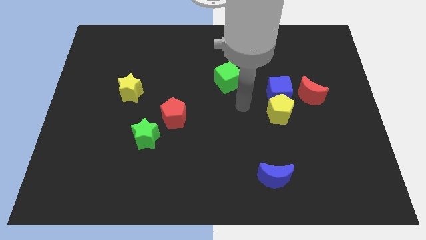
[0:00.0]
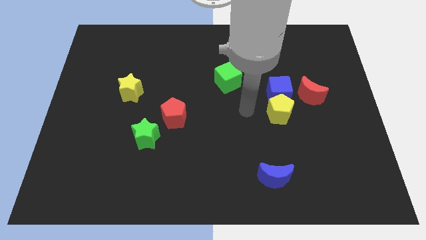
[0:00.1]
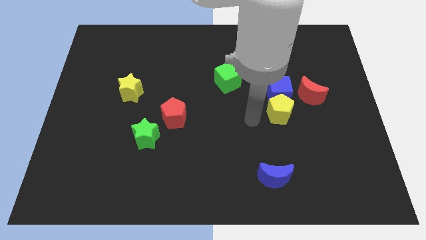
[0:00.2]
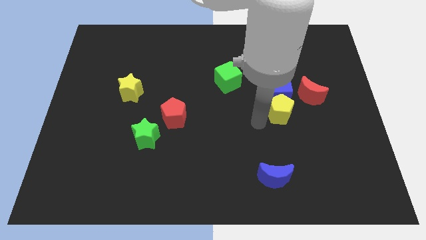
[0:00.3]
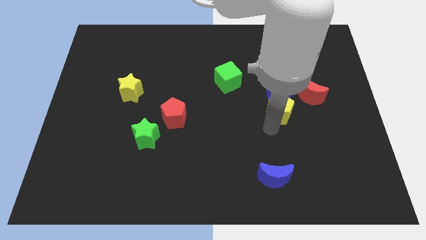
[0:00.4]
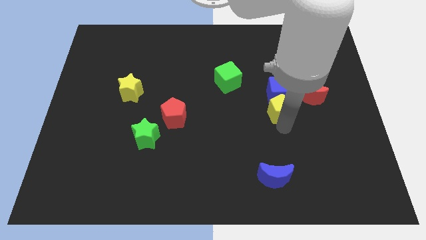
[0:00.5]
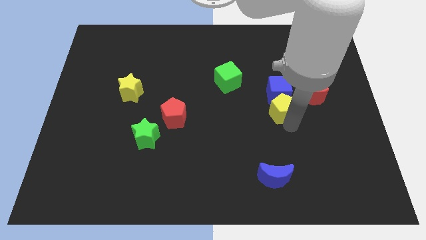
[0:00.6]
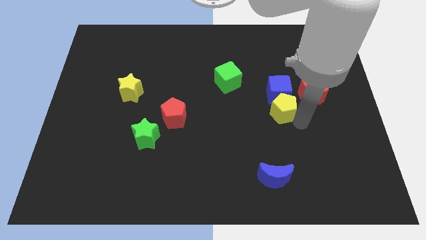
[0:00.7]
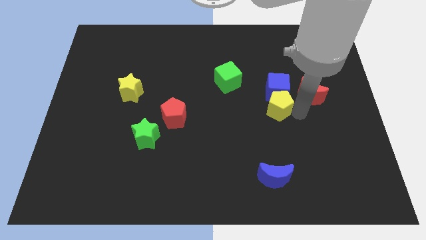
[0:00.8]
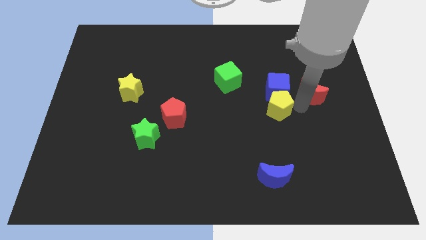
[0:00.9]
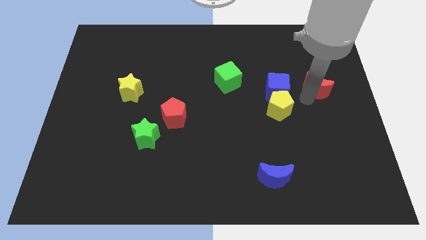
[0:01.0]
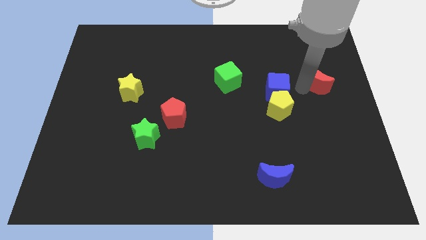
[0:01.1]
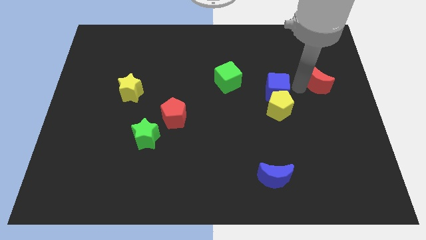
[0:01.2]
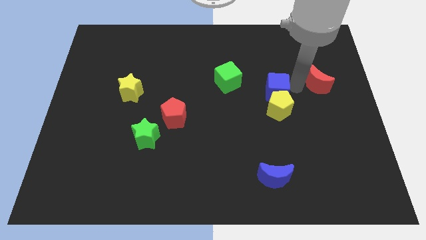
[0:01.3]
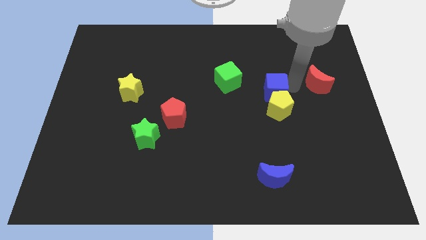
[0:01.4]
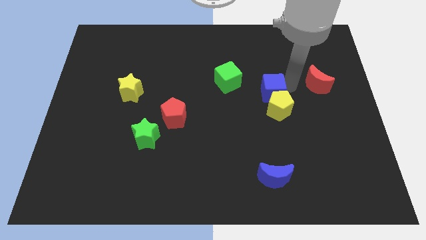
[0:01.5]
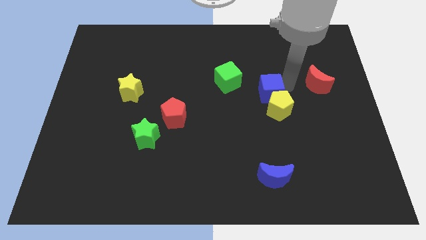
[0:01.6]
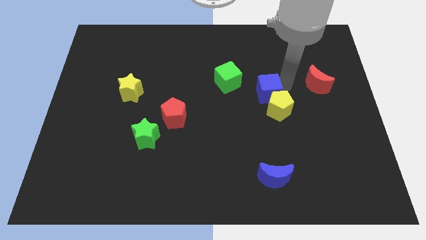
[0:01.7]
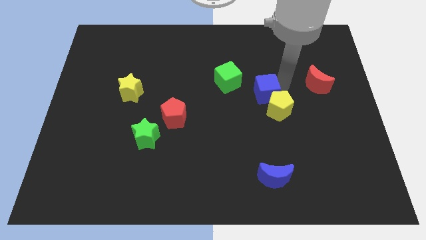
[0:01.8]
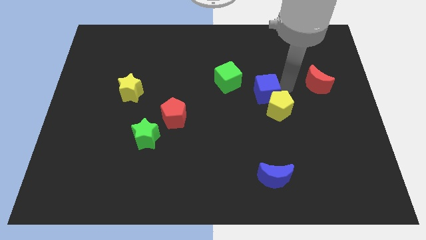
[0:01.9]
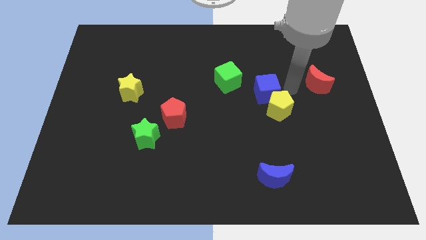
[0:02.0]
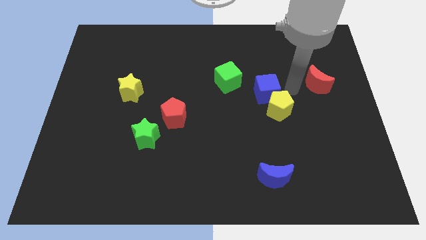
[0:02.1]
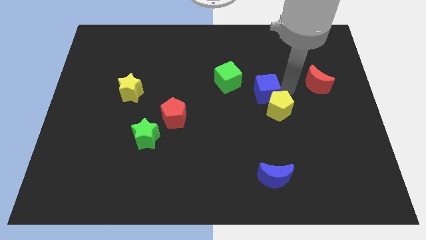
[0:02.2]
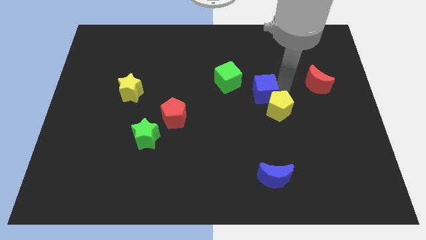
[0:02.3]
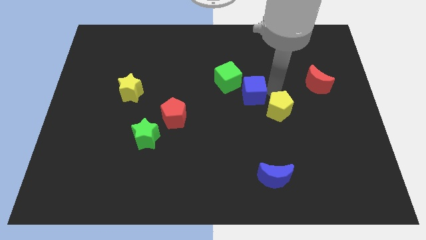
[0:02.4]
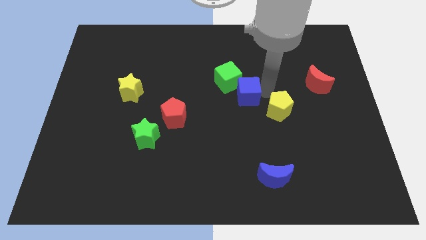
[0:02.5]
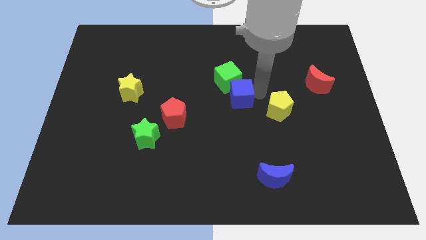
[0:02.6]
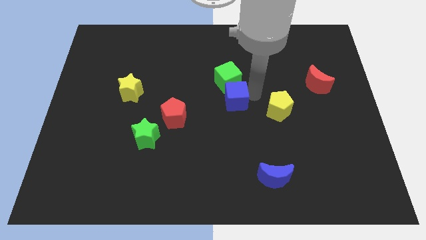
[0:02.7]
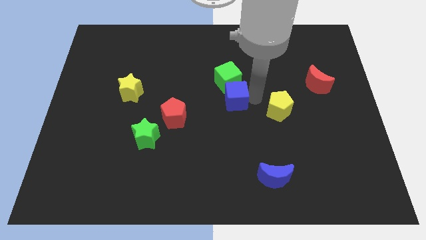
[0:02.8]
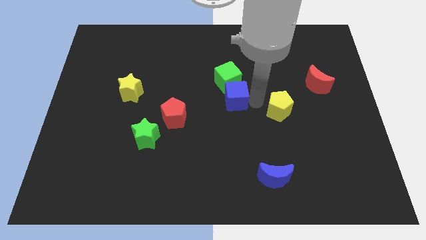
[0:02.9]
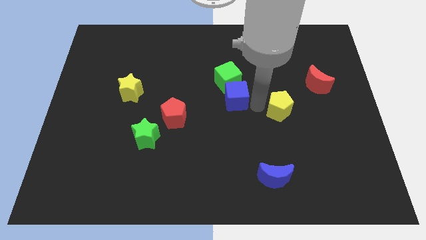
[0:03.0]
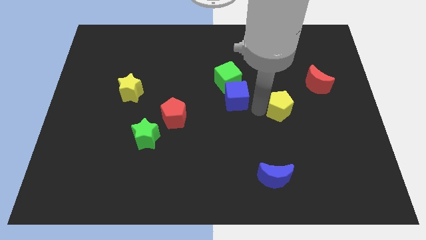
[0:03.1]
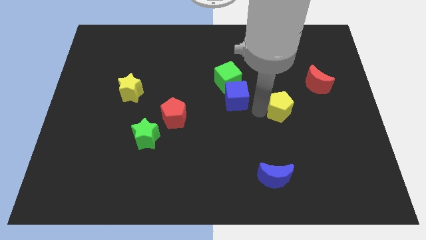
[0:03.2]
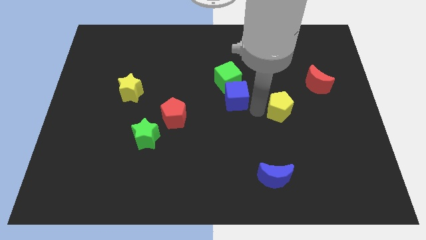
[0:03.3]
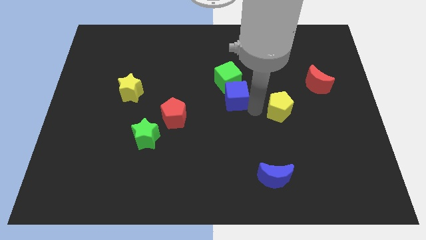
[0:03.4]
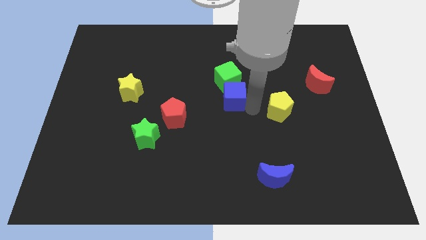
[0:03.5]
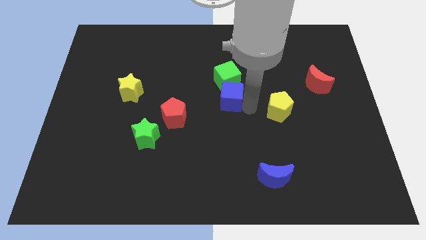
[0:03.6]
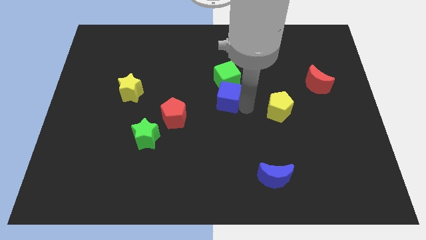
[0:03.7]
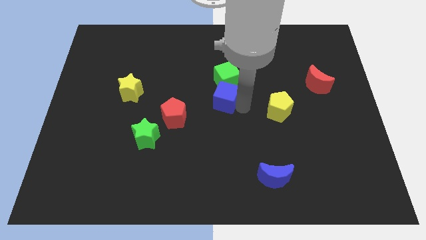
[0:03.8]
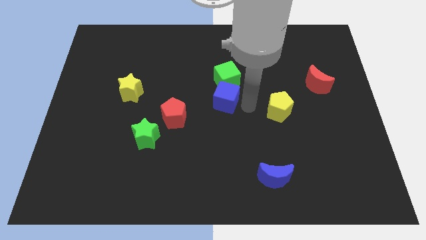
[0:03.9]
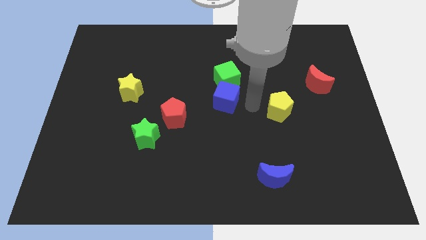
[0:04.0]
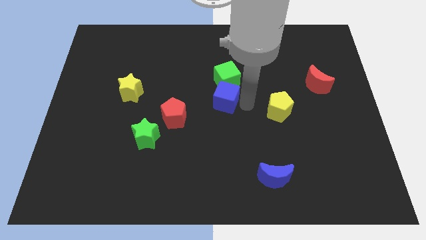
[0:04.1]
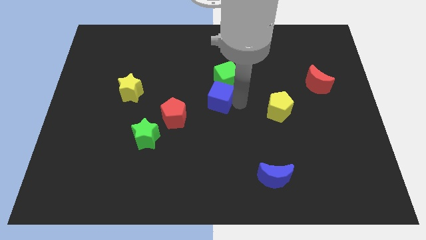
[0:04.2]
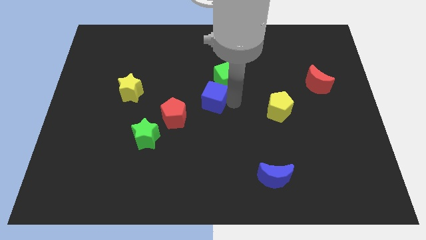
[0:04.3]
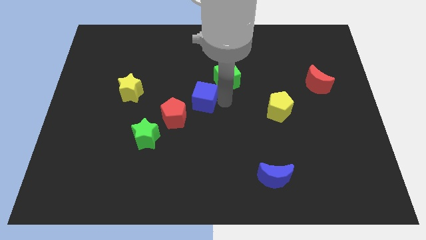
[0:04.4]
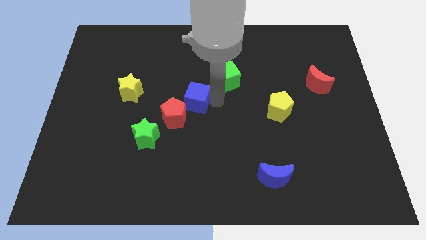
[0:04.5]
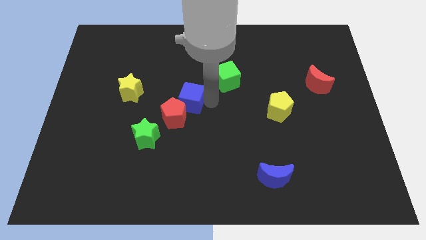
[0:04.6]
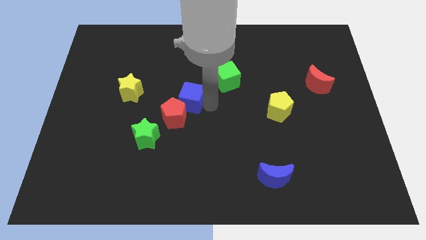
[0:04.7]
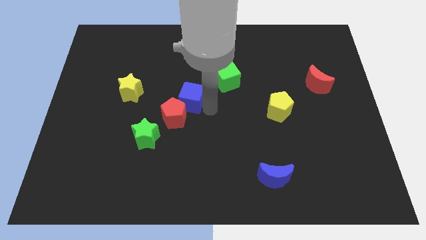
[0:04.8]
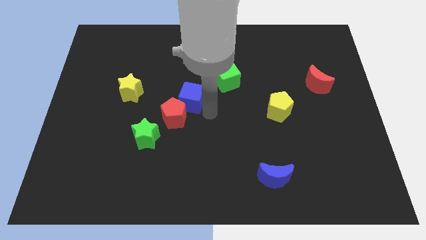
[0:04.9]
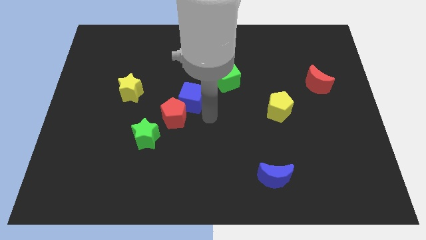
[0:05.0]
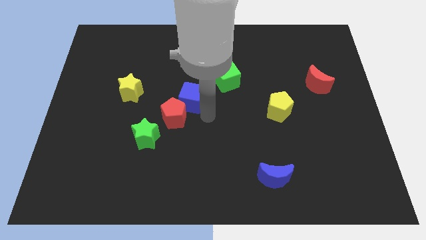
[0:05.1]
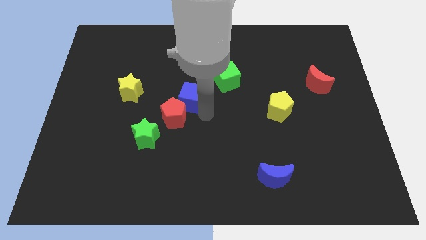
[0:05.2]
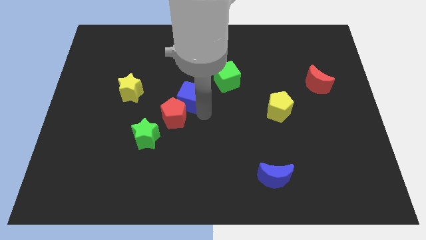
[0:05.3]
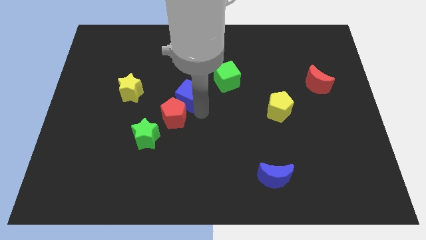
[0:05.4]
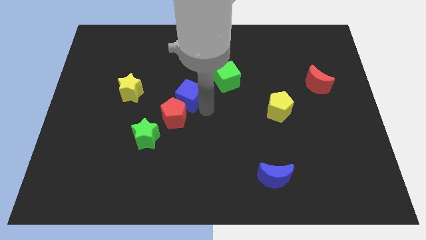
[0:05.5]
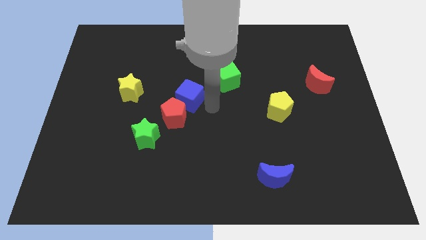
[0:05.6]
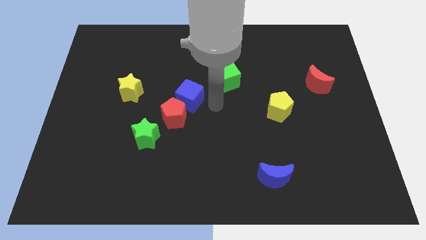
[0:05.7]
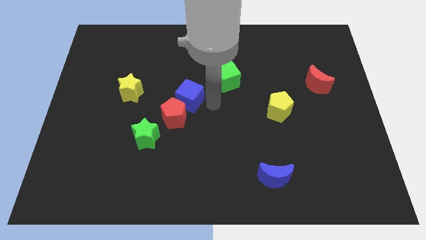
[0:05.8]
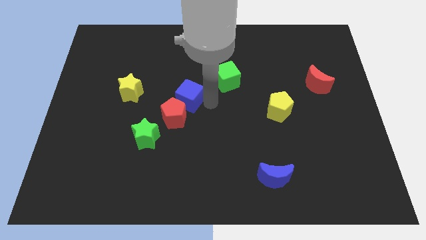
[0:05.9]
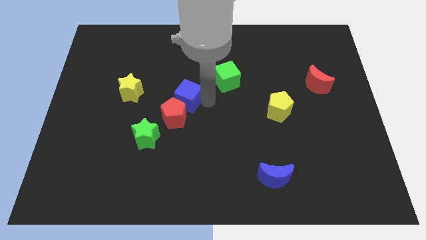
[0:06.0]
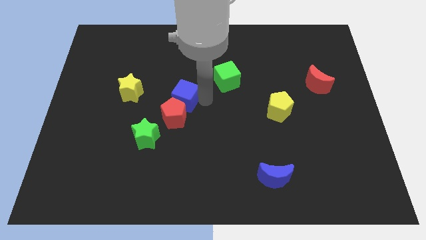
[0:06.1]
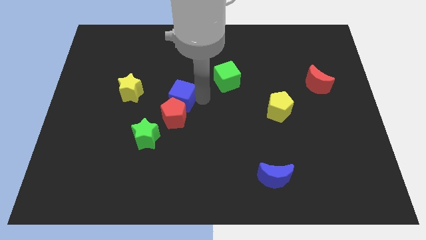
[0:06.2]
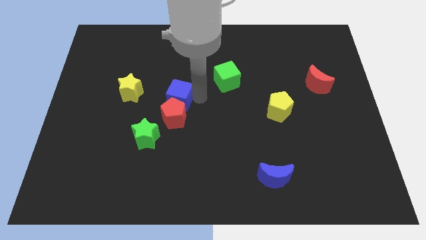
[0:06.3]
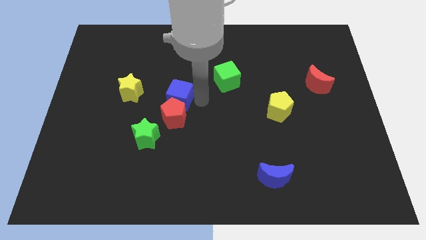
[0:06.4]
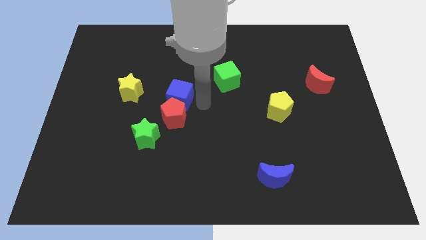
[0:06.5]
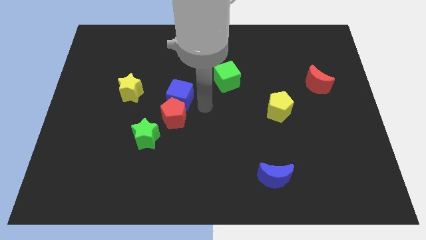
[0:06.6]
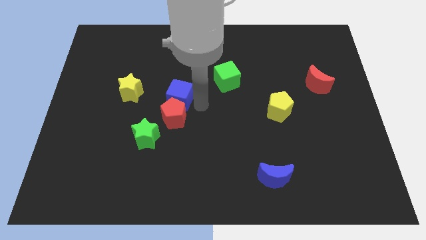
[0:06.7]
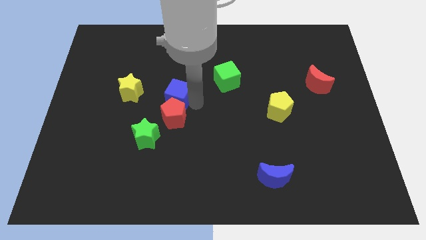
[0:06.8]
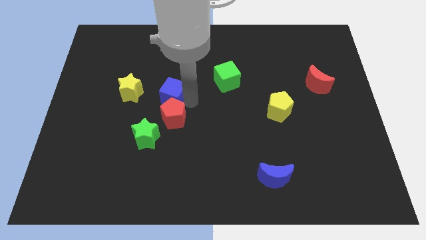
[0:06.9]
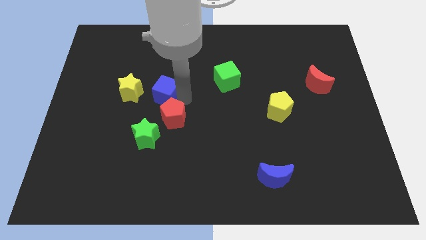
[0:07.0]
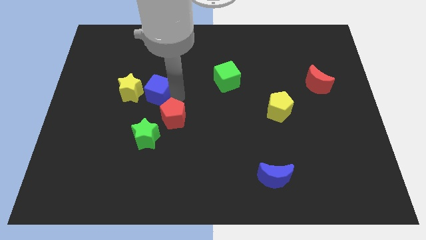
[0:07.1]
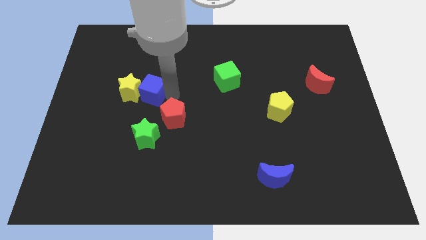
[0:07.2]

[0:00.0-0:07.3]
push the blue cube towards the yellow star

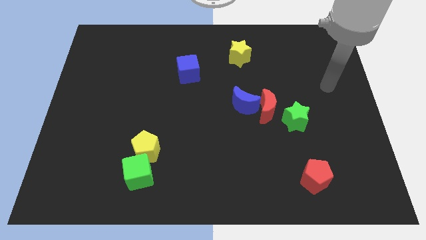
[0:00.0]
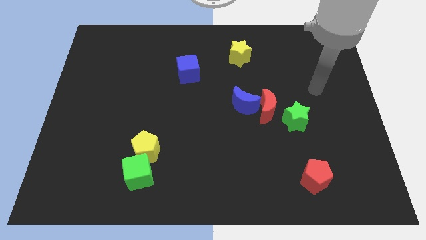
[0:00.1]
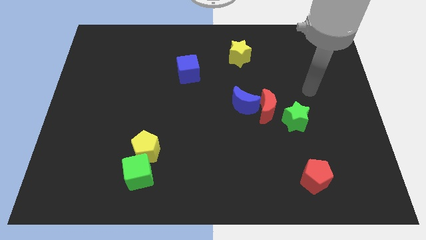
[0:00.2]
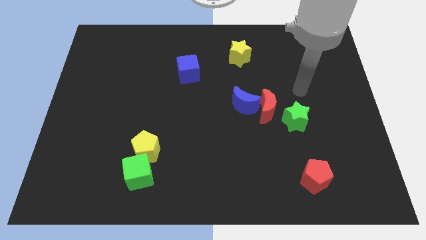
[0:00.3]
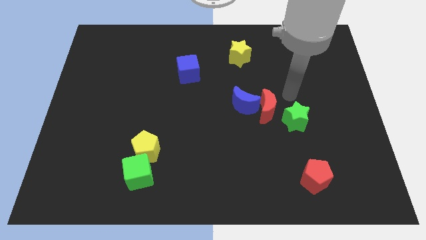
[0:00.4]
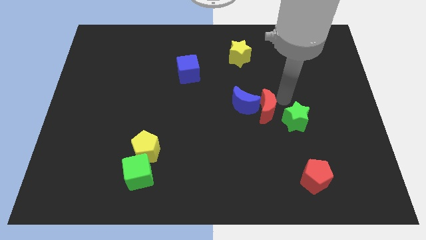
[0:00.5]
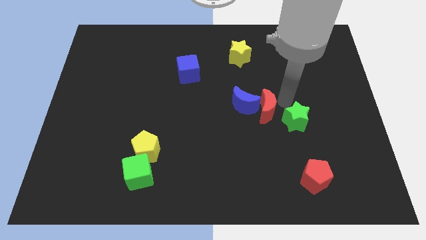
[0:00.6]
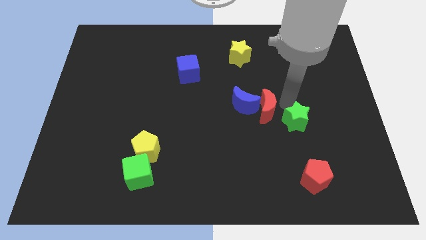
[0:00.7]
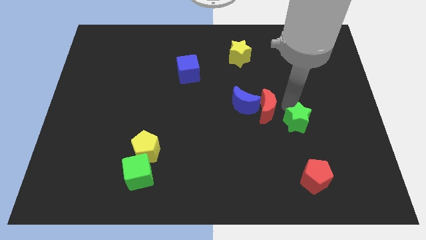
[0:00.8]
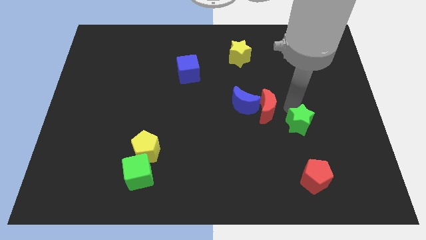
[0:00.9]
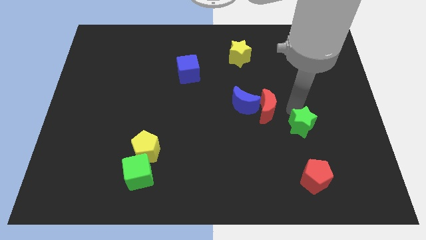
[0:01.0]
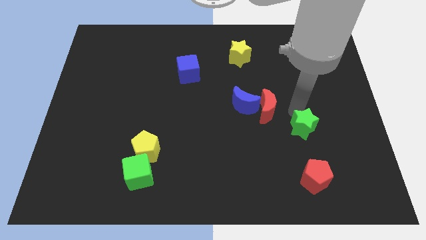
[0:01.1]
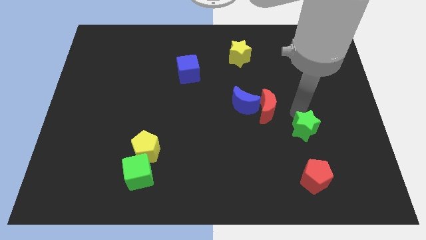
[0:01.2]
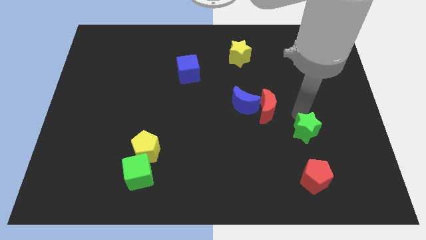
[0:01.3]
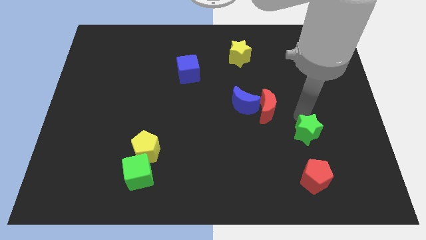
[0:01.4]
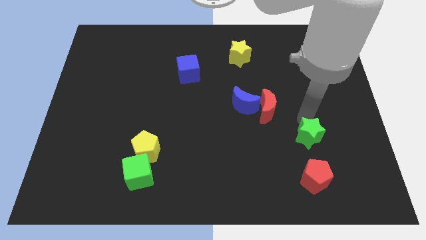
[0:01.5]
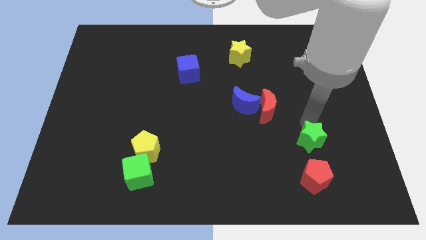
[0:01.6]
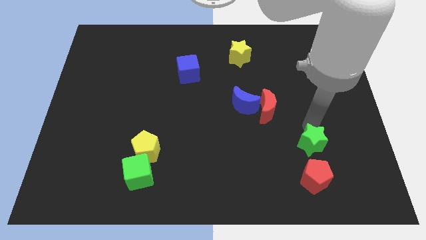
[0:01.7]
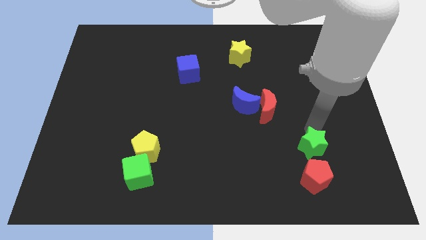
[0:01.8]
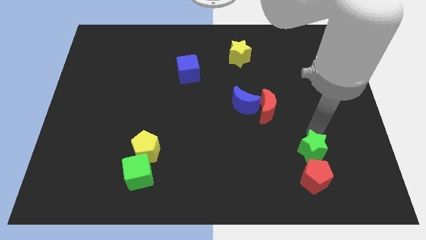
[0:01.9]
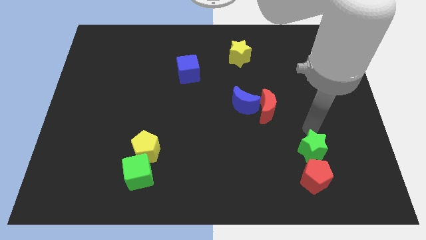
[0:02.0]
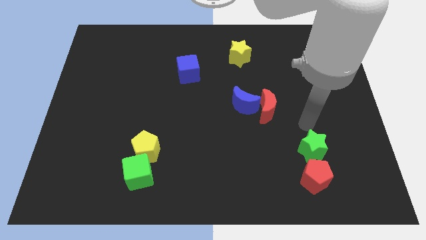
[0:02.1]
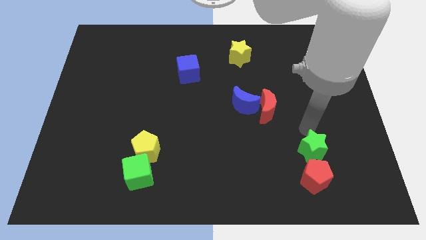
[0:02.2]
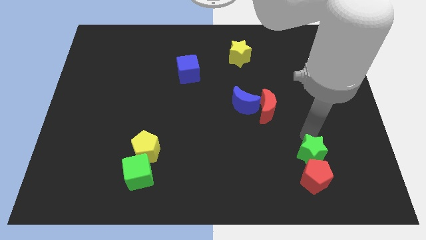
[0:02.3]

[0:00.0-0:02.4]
push the green star next to the red pentagon
